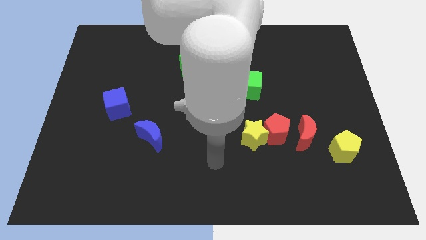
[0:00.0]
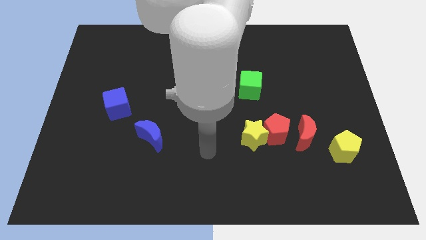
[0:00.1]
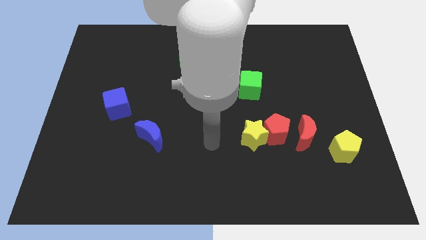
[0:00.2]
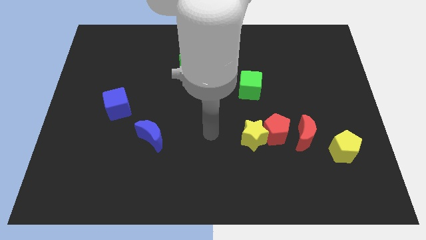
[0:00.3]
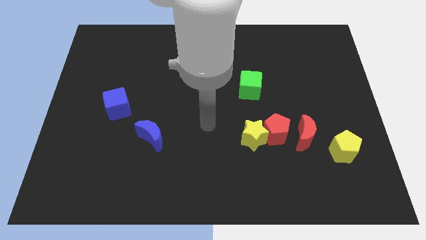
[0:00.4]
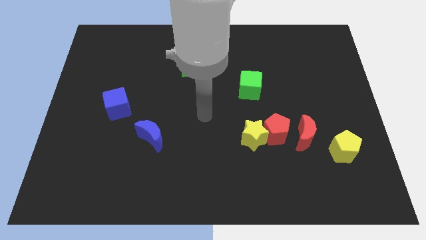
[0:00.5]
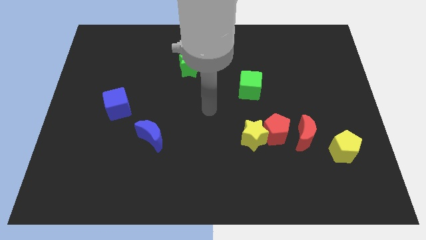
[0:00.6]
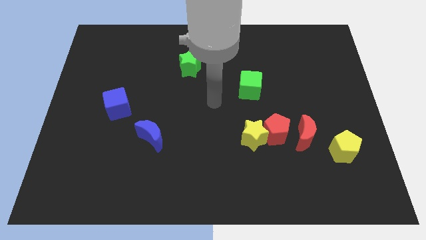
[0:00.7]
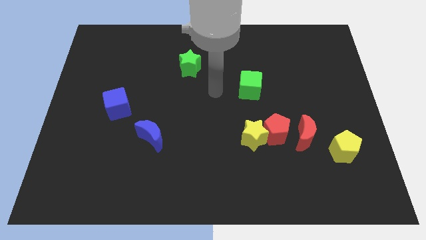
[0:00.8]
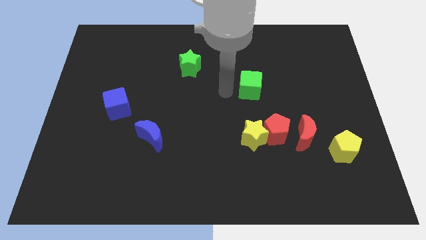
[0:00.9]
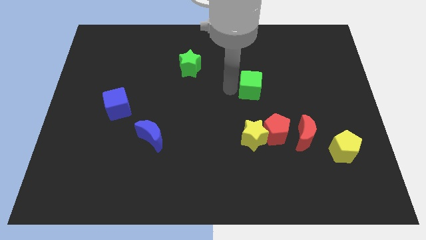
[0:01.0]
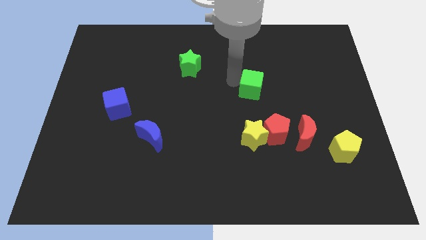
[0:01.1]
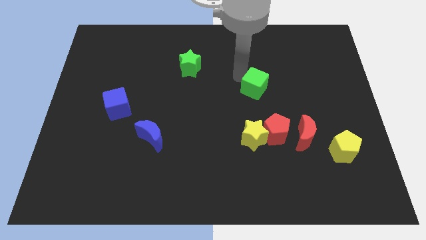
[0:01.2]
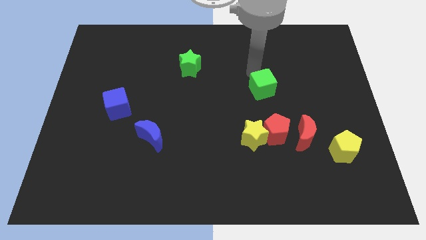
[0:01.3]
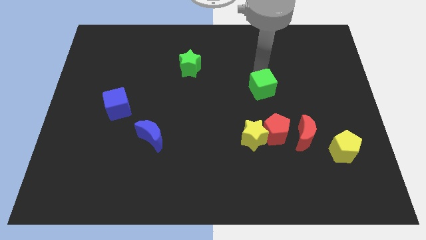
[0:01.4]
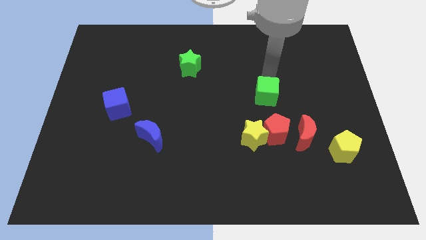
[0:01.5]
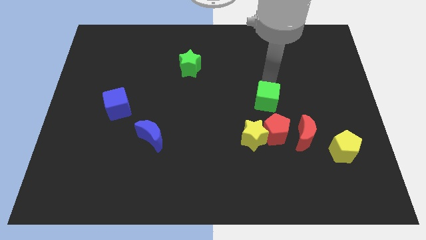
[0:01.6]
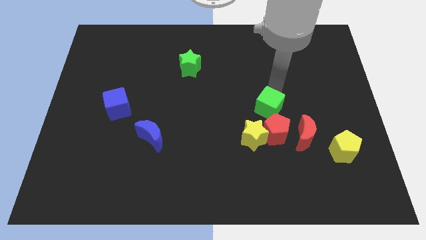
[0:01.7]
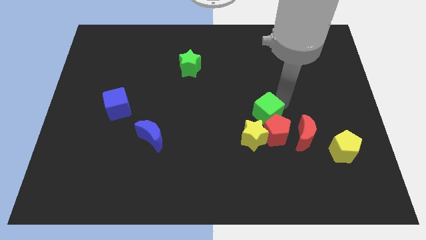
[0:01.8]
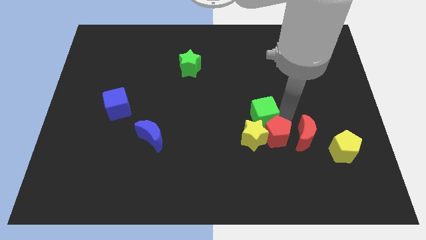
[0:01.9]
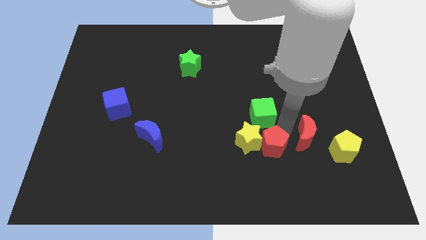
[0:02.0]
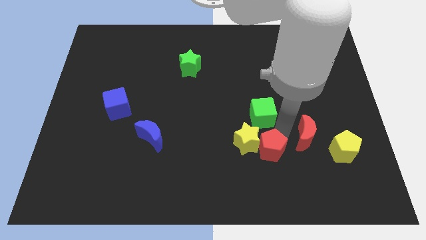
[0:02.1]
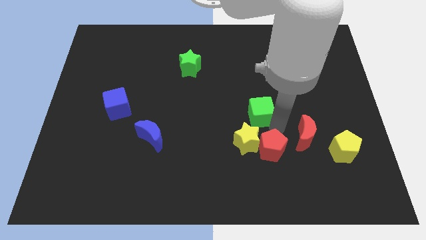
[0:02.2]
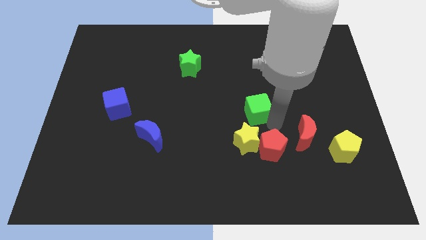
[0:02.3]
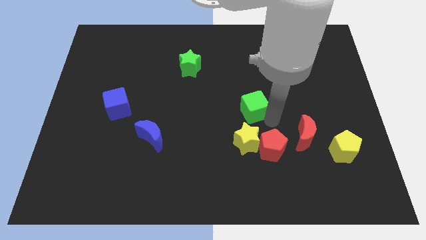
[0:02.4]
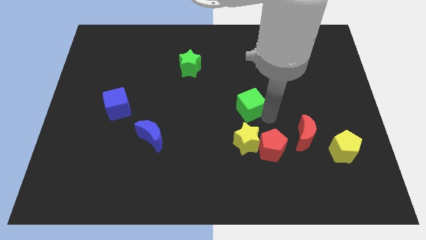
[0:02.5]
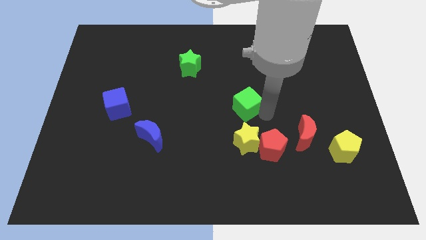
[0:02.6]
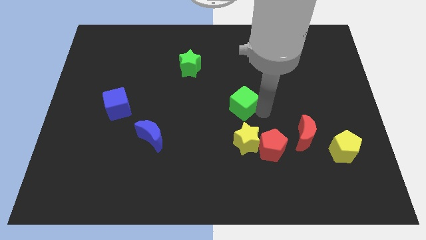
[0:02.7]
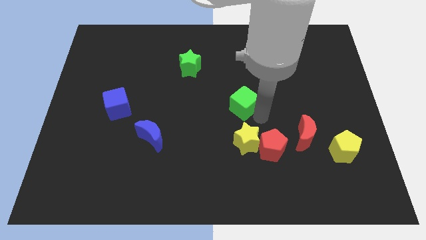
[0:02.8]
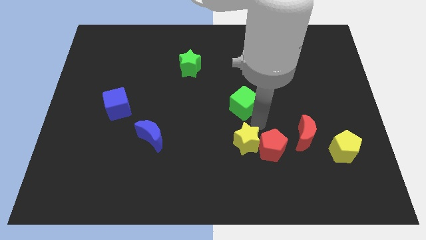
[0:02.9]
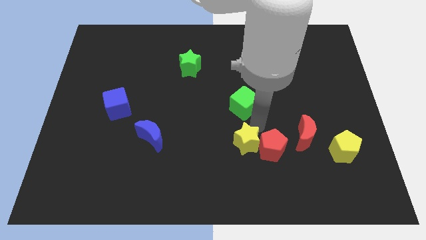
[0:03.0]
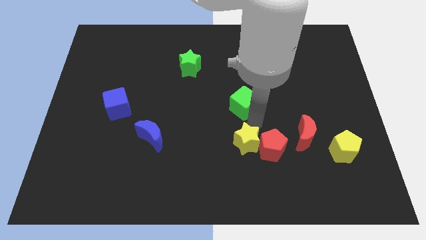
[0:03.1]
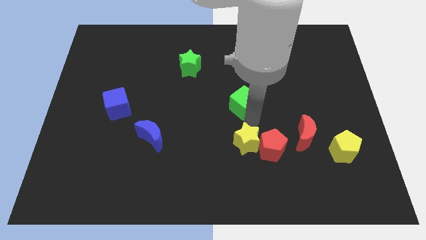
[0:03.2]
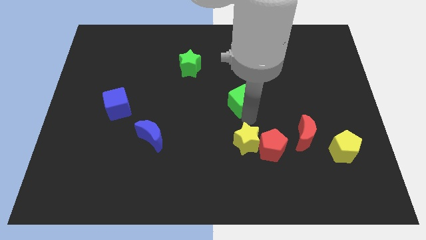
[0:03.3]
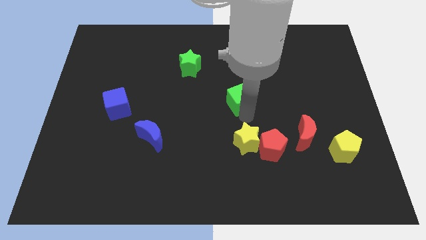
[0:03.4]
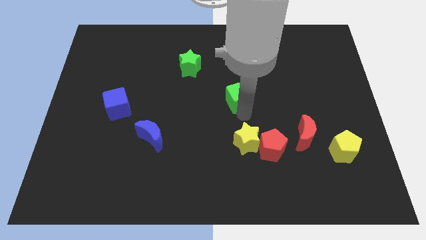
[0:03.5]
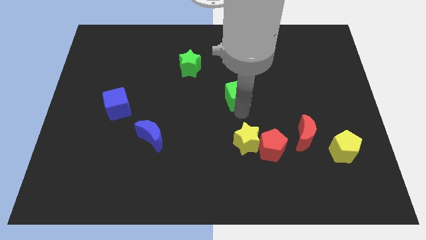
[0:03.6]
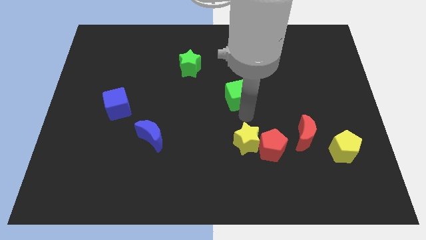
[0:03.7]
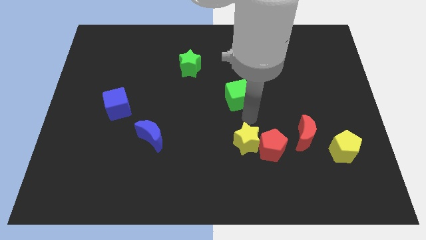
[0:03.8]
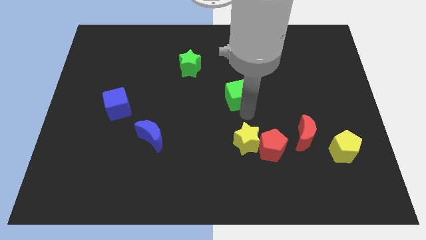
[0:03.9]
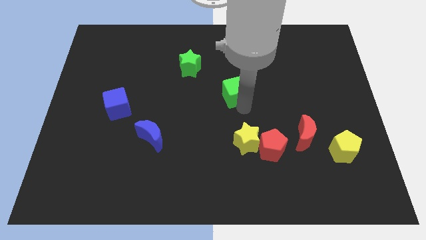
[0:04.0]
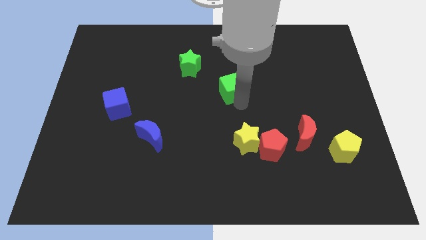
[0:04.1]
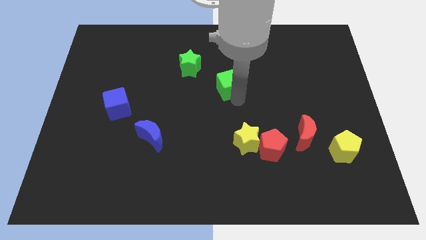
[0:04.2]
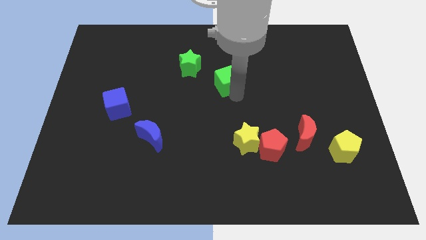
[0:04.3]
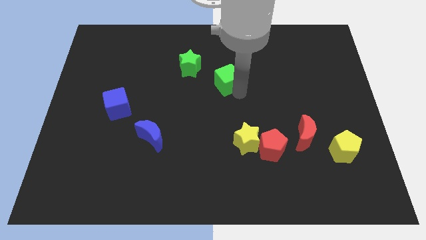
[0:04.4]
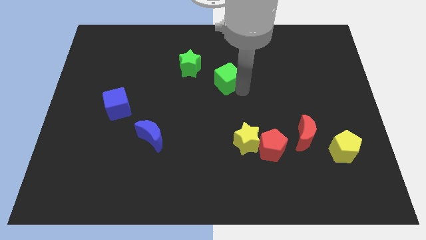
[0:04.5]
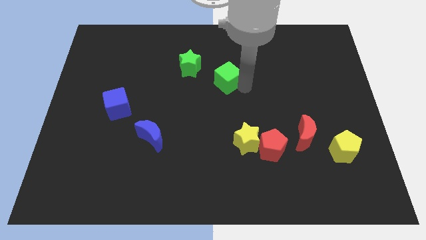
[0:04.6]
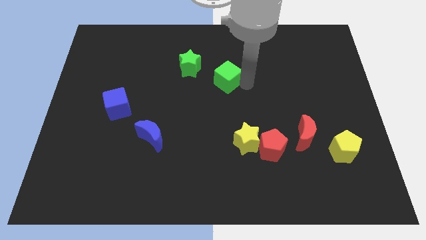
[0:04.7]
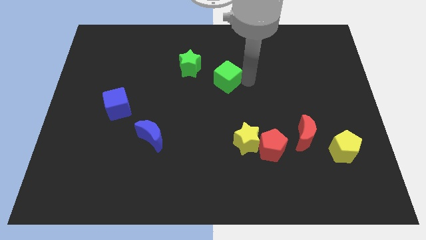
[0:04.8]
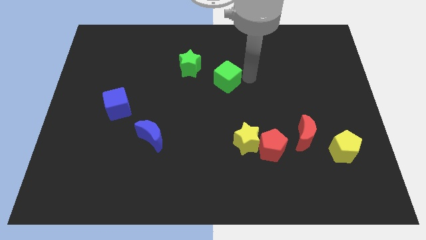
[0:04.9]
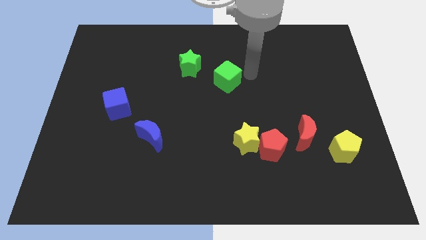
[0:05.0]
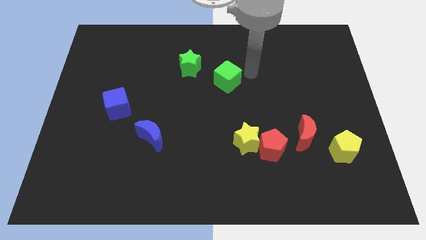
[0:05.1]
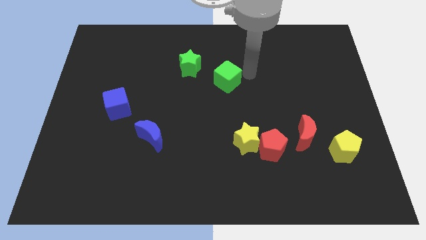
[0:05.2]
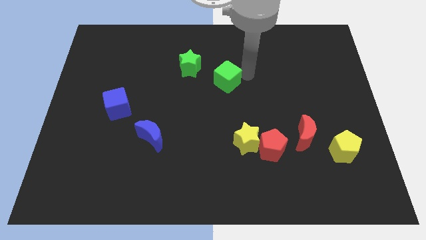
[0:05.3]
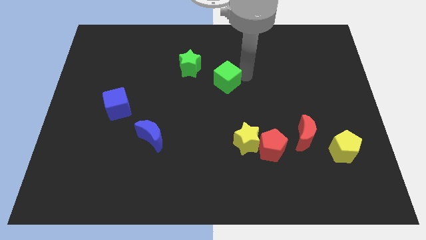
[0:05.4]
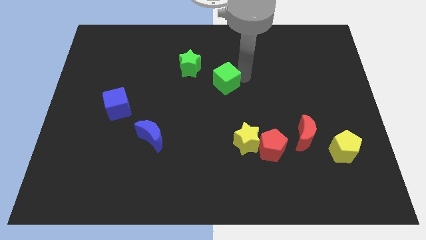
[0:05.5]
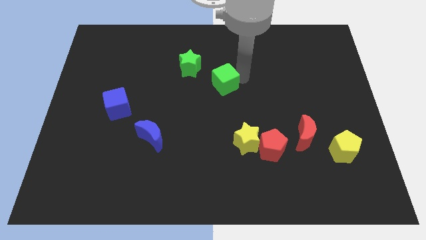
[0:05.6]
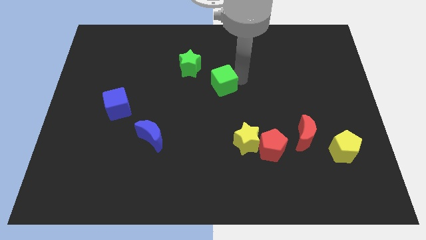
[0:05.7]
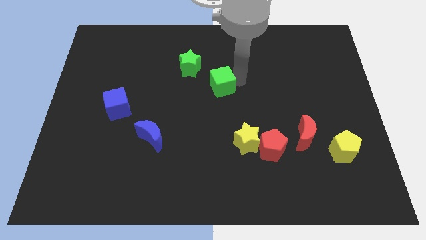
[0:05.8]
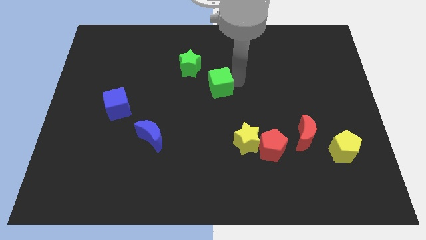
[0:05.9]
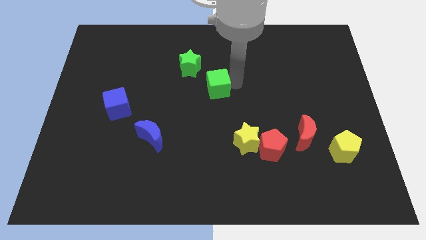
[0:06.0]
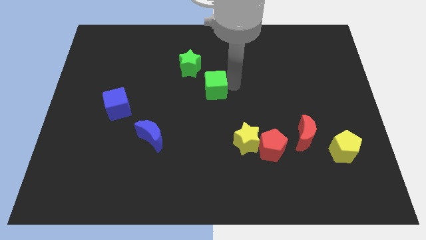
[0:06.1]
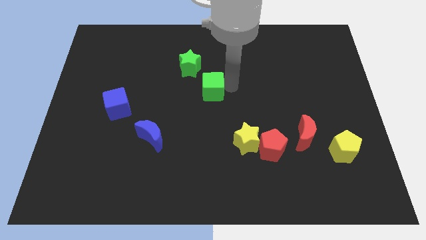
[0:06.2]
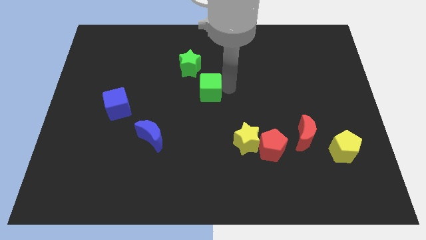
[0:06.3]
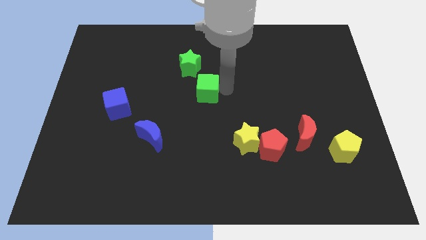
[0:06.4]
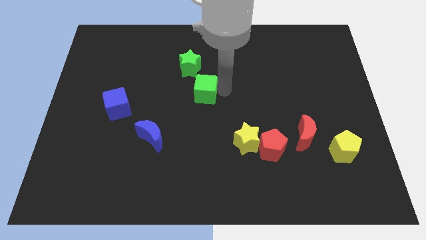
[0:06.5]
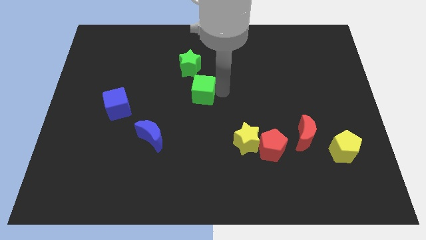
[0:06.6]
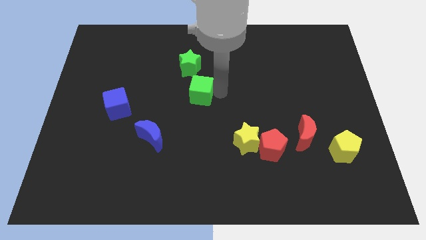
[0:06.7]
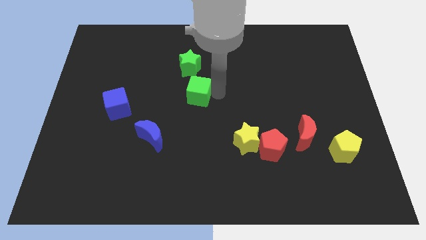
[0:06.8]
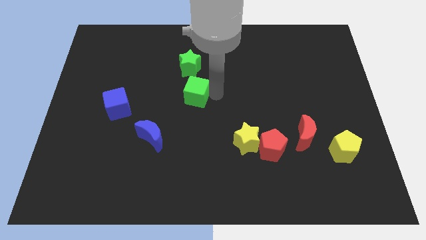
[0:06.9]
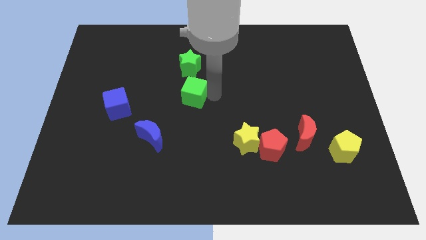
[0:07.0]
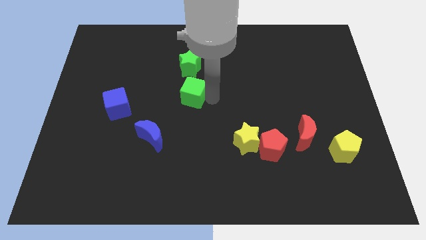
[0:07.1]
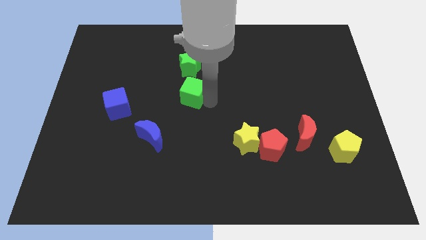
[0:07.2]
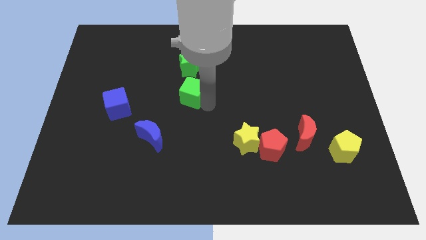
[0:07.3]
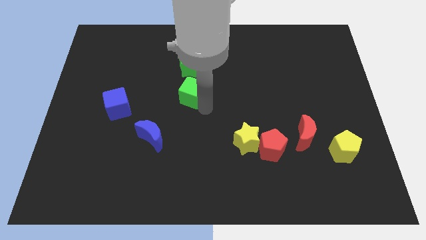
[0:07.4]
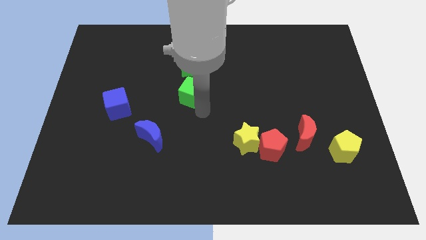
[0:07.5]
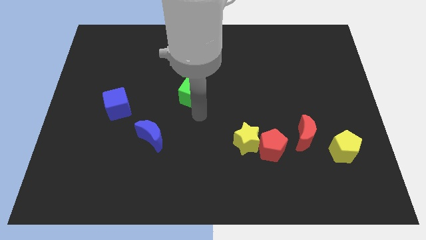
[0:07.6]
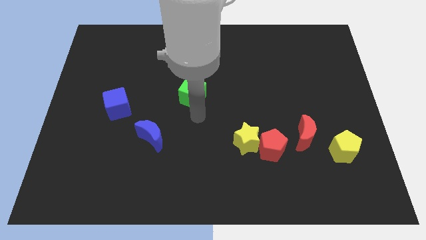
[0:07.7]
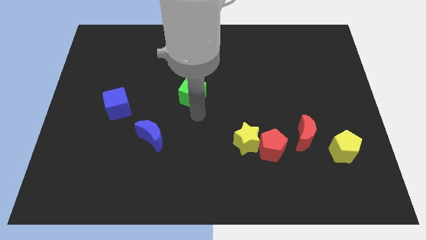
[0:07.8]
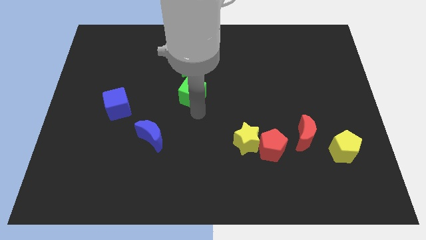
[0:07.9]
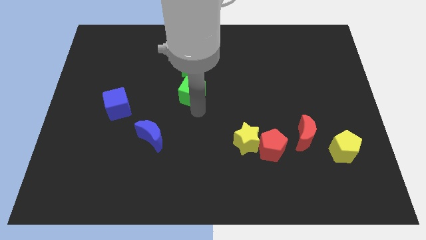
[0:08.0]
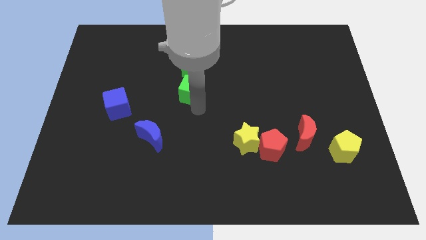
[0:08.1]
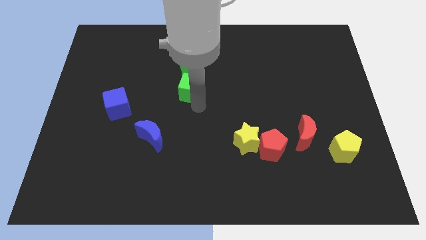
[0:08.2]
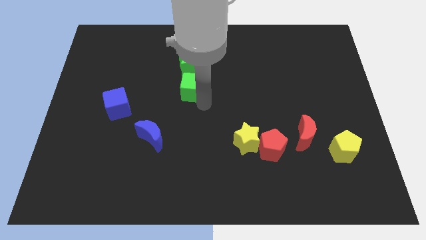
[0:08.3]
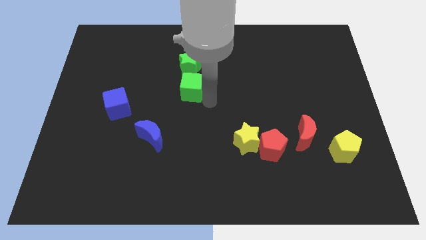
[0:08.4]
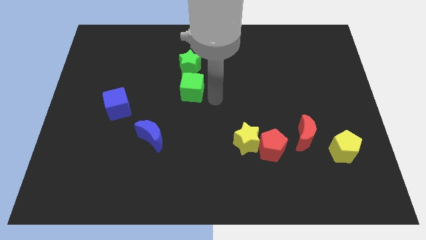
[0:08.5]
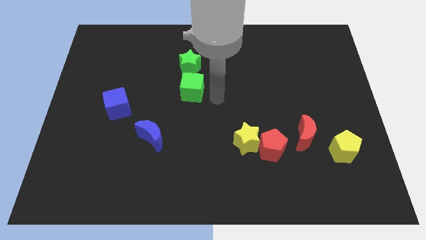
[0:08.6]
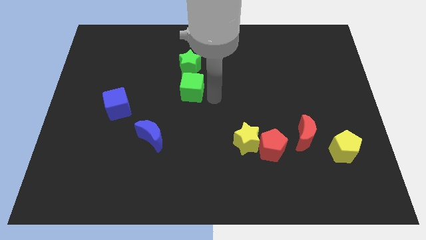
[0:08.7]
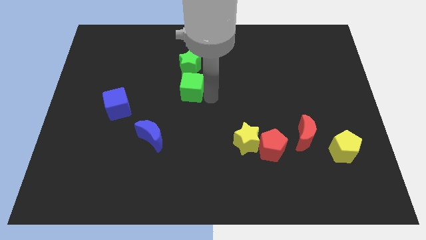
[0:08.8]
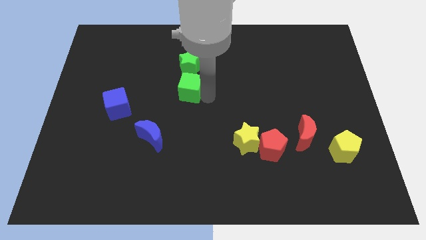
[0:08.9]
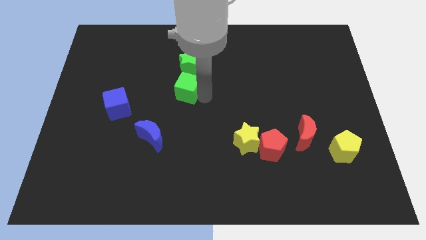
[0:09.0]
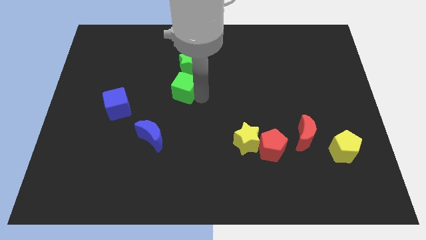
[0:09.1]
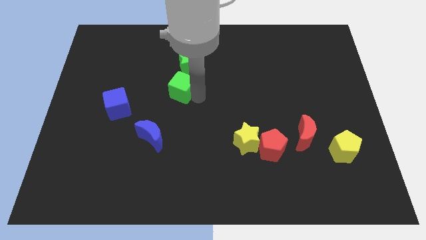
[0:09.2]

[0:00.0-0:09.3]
put the green cube to the bottom left of the green star
